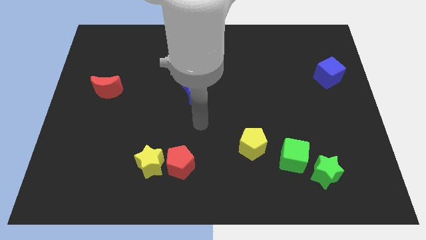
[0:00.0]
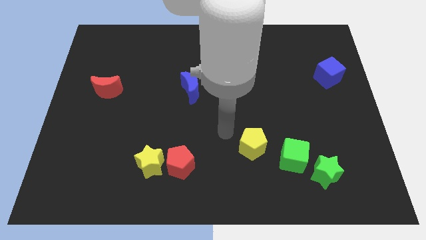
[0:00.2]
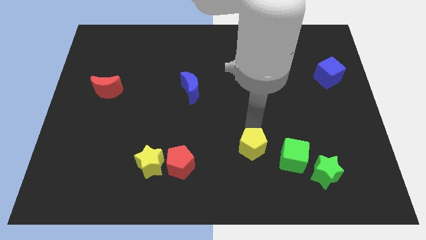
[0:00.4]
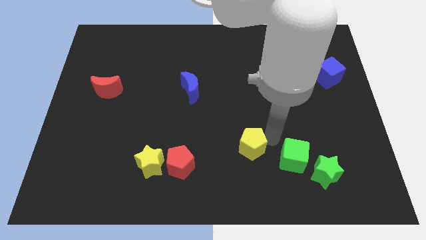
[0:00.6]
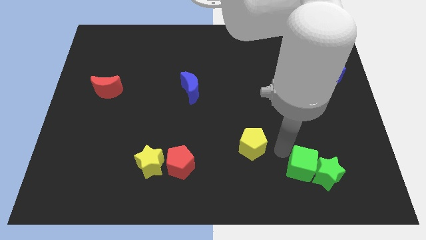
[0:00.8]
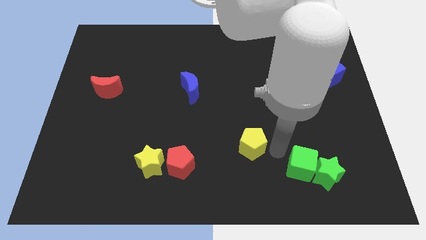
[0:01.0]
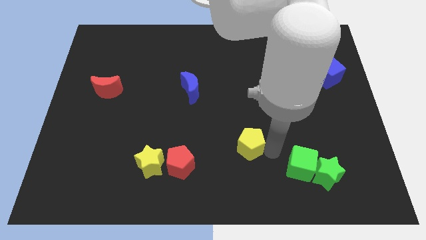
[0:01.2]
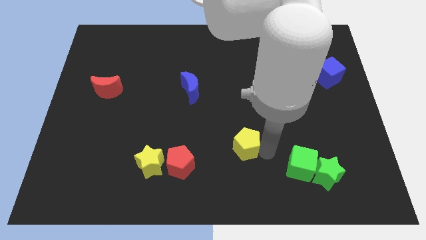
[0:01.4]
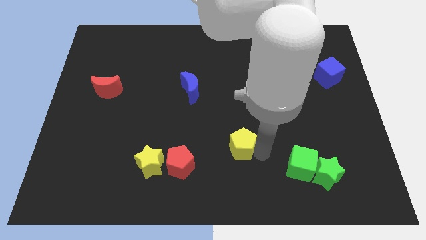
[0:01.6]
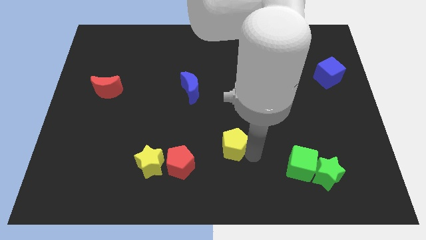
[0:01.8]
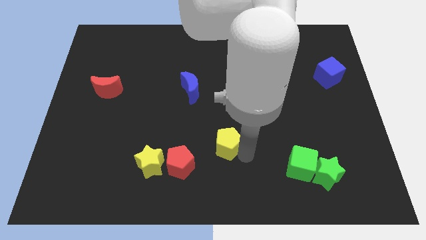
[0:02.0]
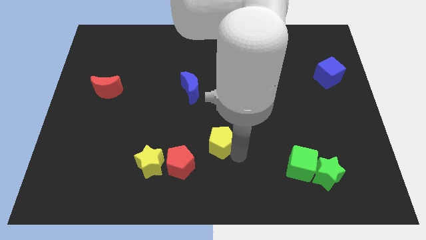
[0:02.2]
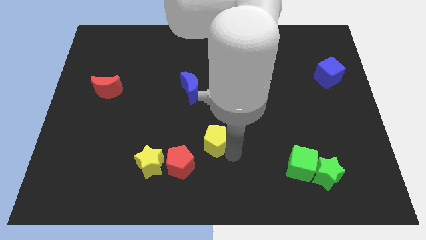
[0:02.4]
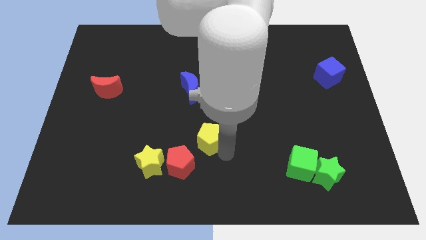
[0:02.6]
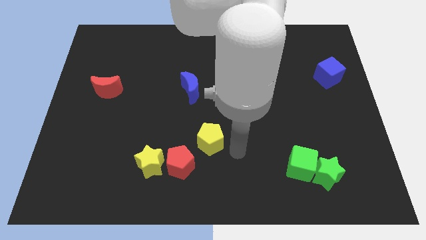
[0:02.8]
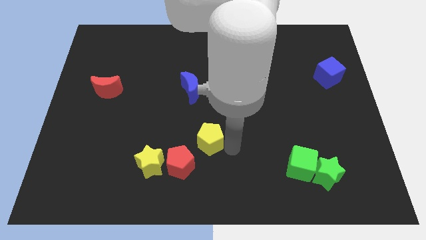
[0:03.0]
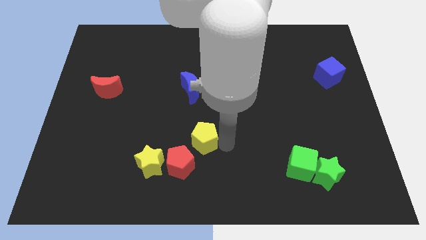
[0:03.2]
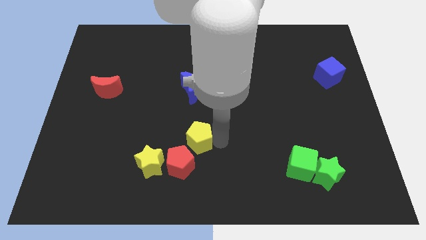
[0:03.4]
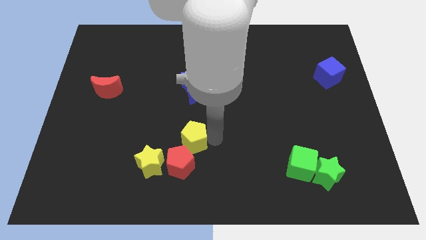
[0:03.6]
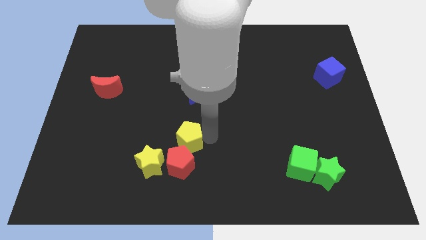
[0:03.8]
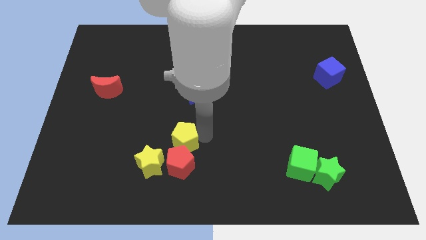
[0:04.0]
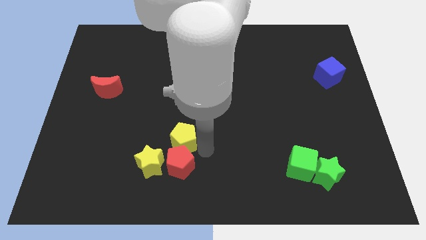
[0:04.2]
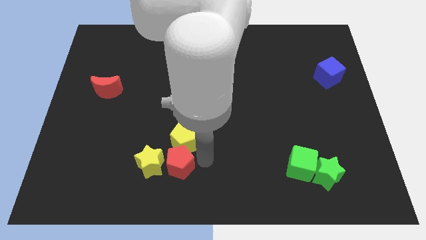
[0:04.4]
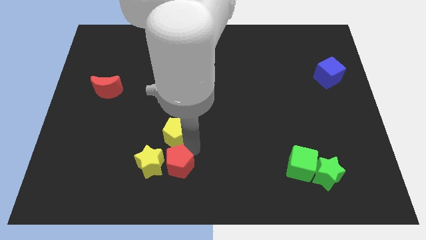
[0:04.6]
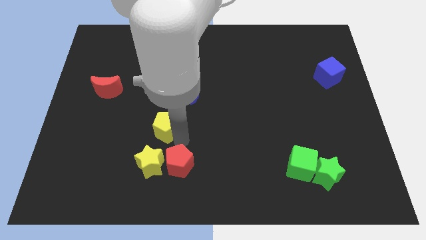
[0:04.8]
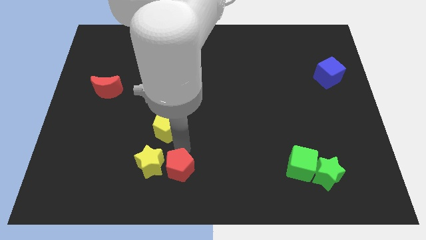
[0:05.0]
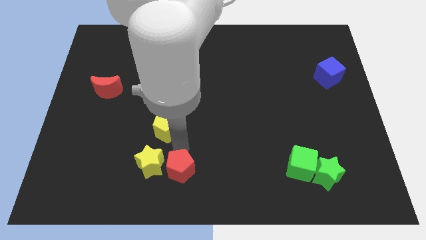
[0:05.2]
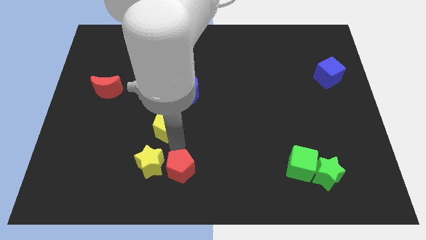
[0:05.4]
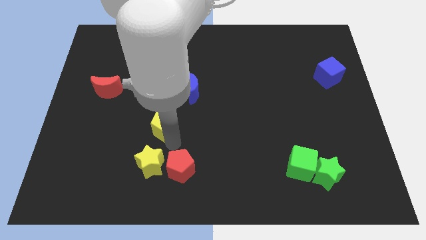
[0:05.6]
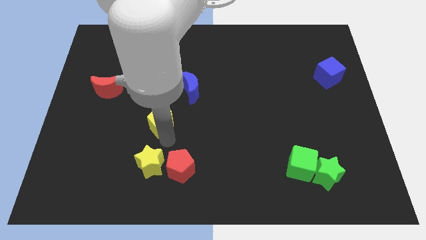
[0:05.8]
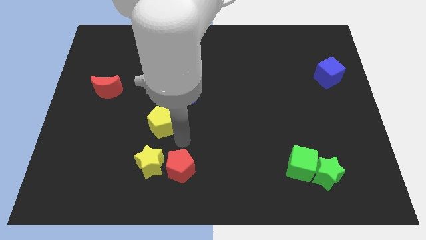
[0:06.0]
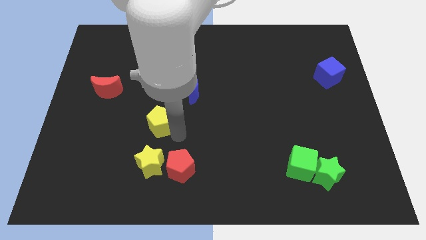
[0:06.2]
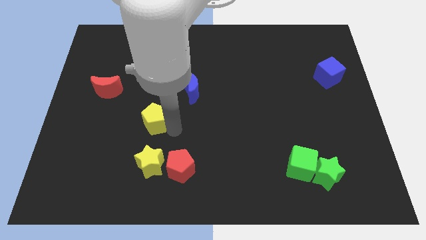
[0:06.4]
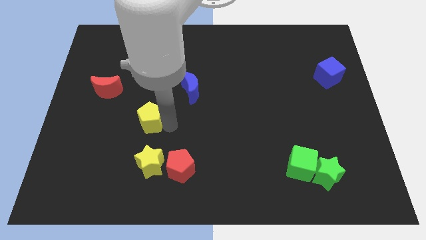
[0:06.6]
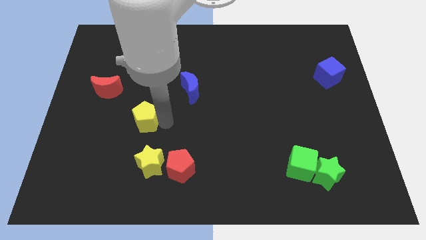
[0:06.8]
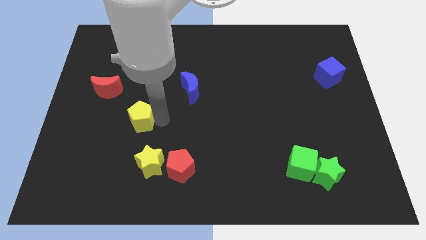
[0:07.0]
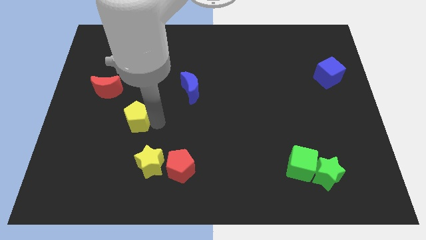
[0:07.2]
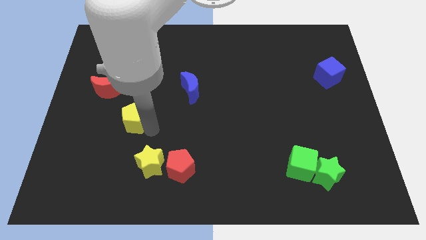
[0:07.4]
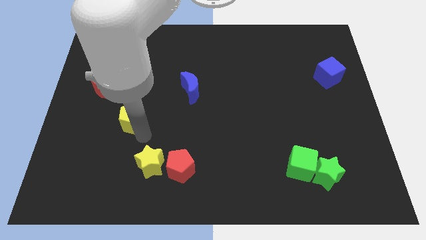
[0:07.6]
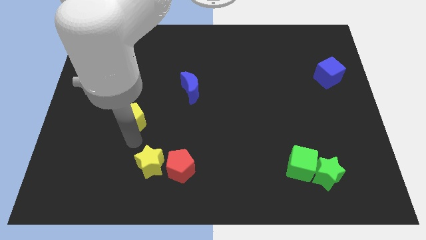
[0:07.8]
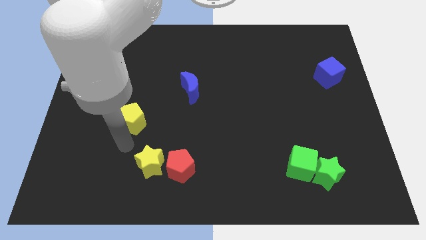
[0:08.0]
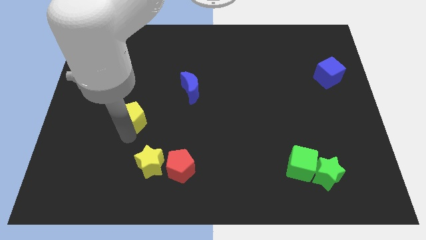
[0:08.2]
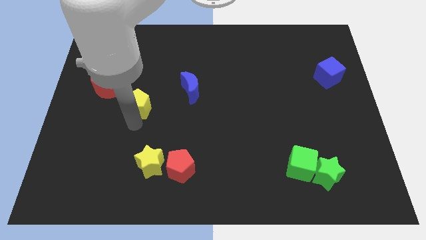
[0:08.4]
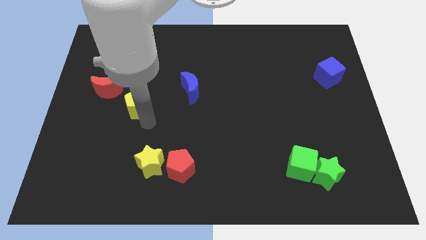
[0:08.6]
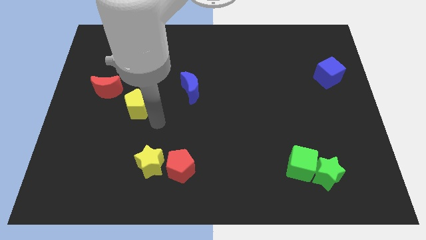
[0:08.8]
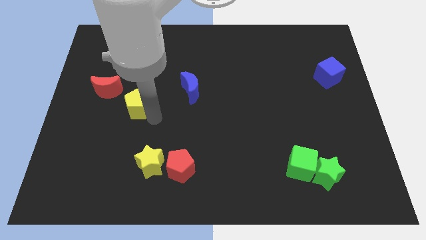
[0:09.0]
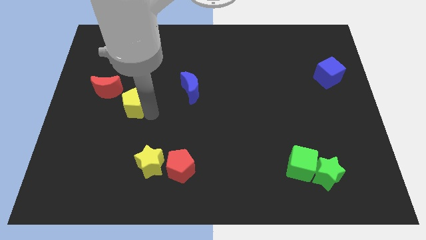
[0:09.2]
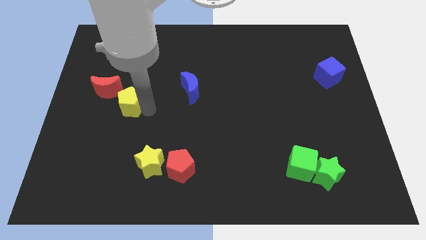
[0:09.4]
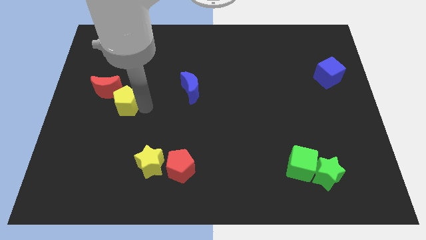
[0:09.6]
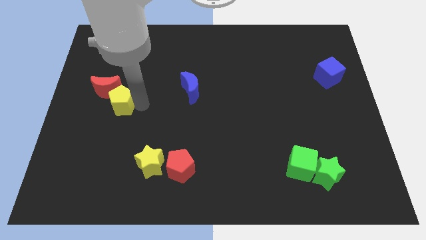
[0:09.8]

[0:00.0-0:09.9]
put the yellow pentagon close to the red moon

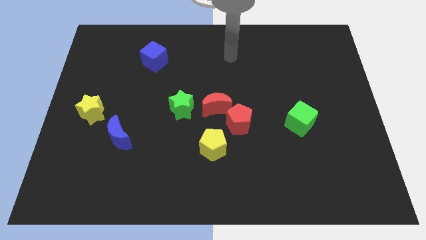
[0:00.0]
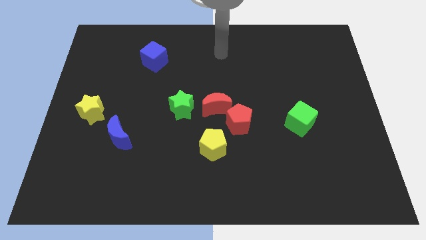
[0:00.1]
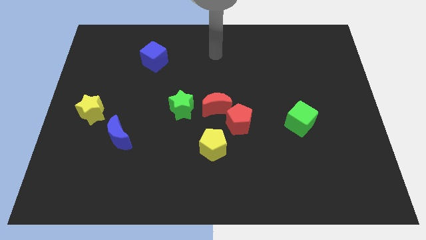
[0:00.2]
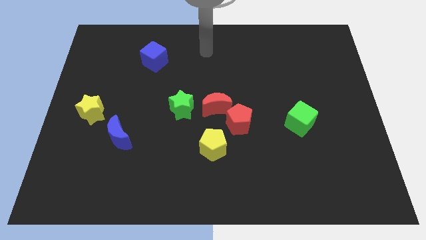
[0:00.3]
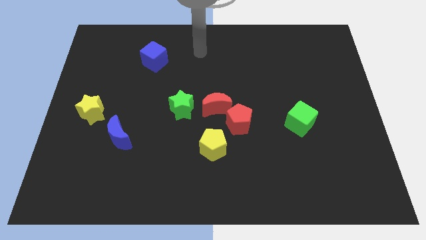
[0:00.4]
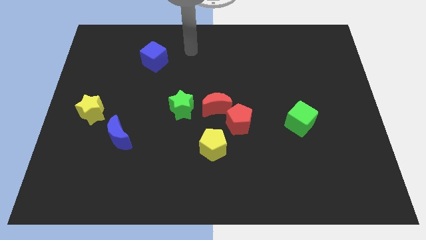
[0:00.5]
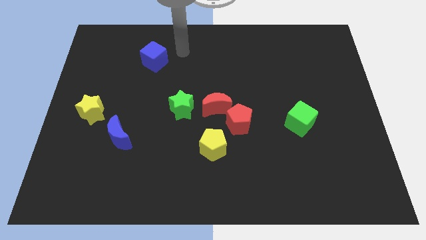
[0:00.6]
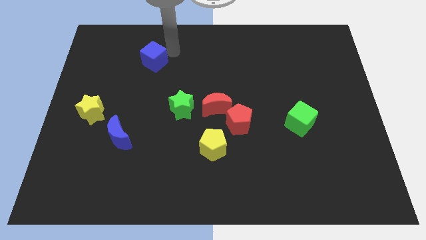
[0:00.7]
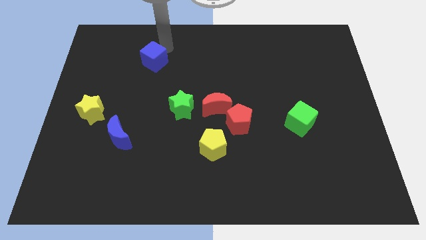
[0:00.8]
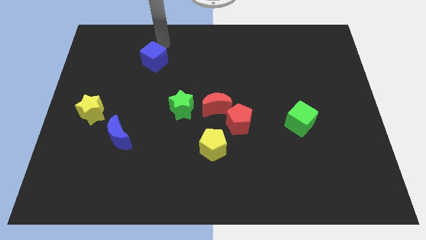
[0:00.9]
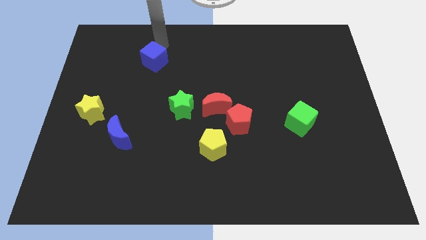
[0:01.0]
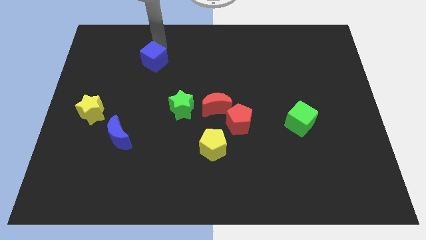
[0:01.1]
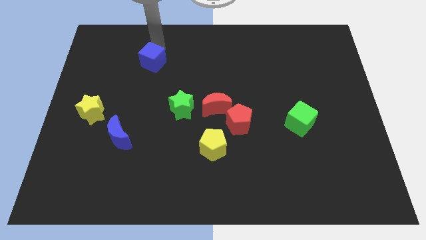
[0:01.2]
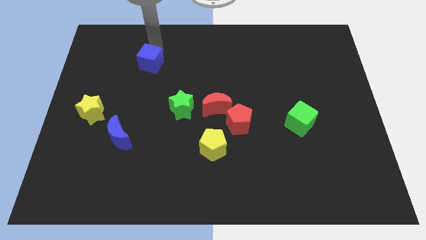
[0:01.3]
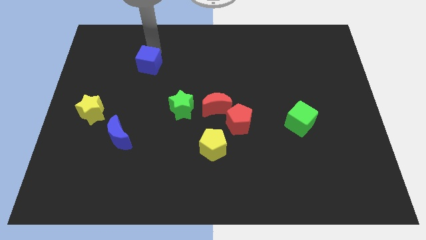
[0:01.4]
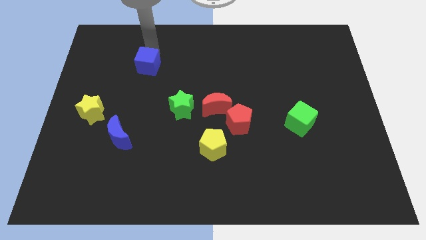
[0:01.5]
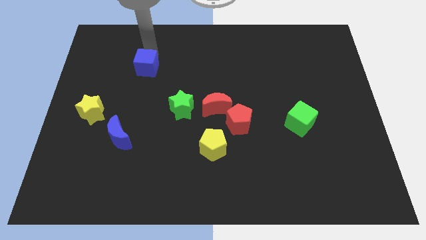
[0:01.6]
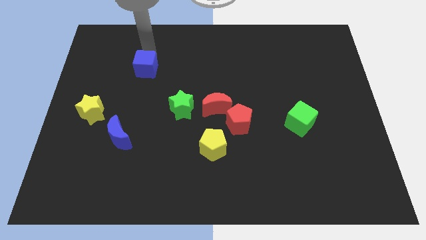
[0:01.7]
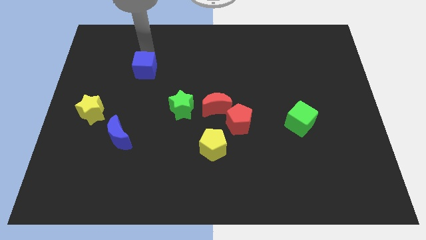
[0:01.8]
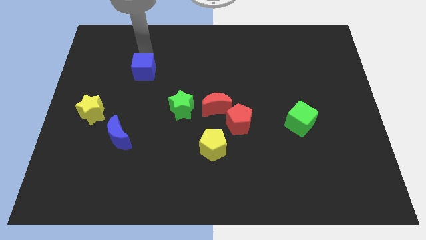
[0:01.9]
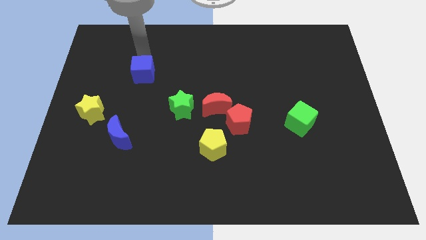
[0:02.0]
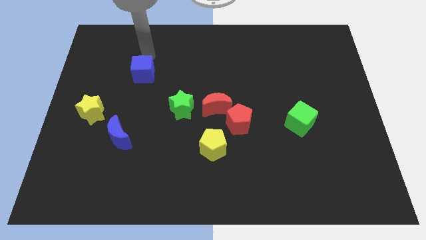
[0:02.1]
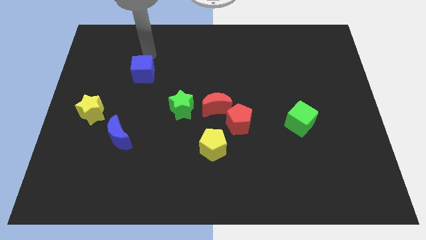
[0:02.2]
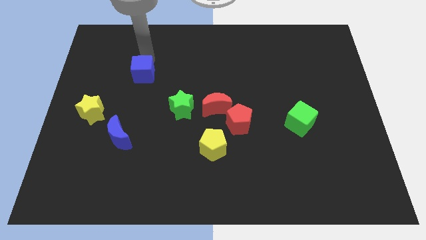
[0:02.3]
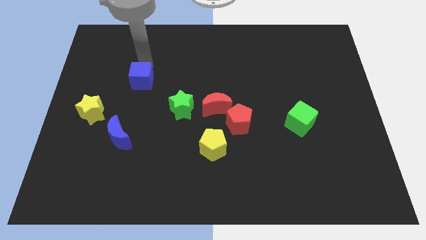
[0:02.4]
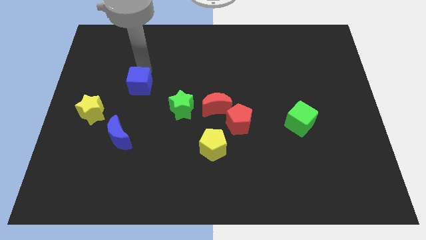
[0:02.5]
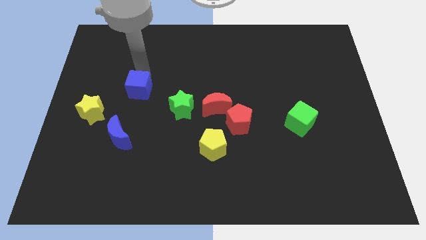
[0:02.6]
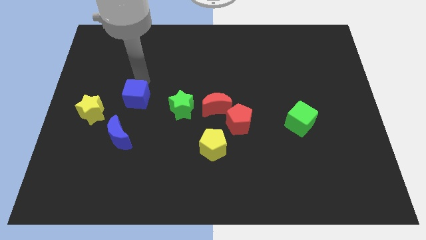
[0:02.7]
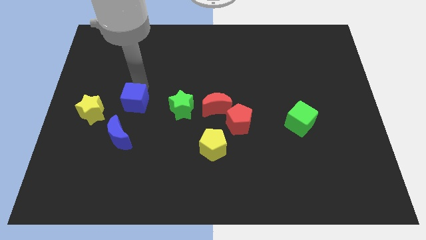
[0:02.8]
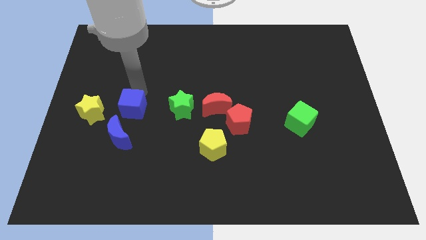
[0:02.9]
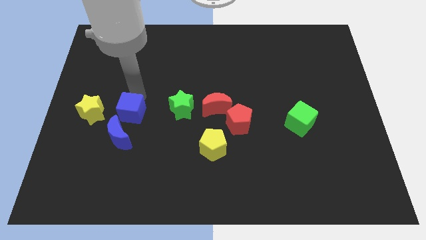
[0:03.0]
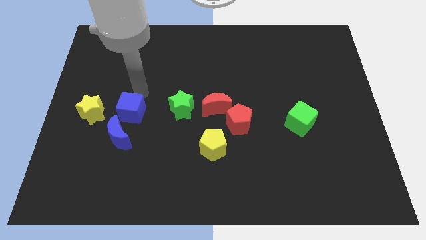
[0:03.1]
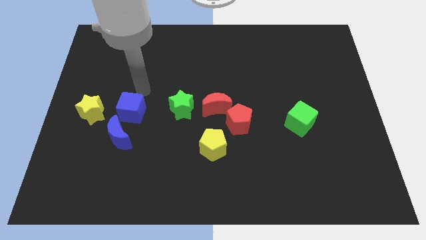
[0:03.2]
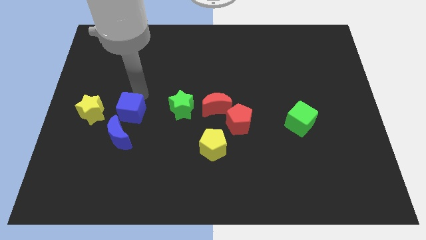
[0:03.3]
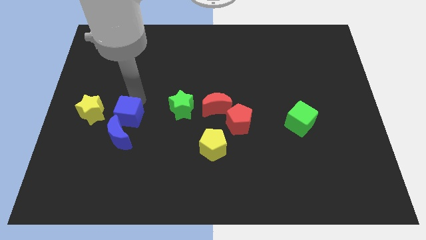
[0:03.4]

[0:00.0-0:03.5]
slide the blue cube close to the blue moon
